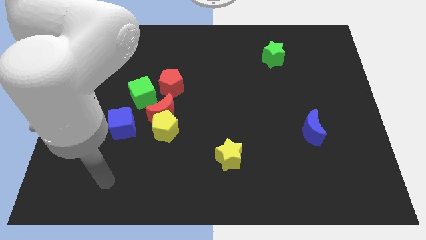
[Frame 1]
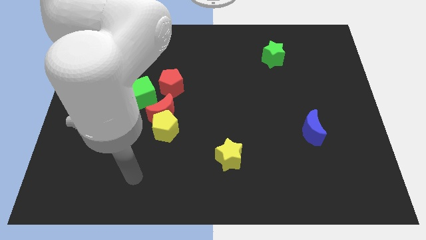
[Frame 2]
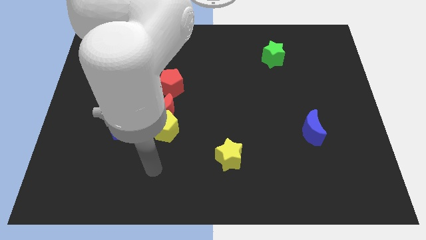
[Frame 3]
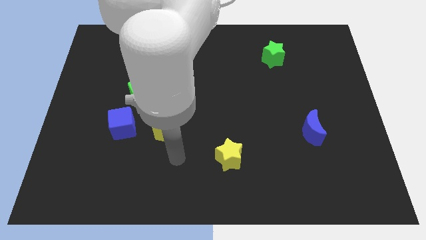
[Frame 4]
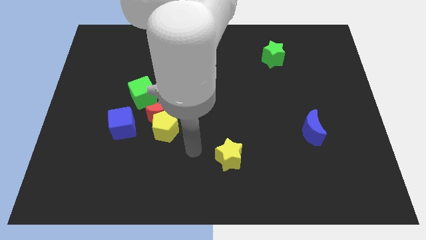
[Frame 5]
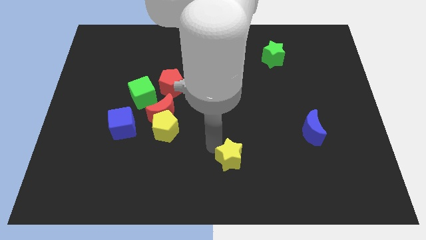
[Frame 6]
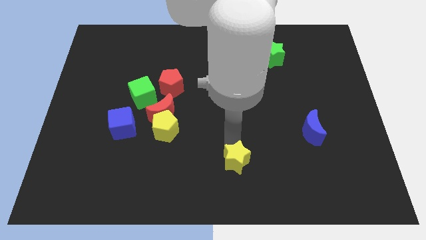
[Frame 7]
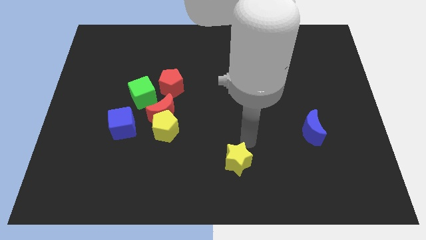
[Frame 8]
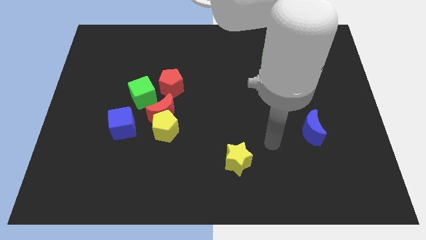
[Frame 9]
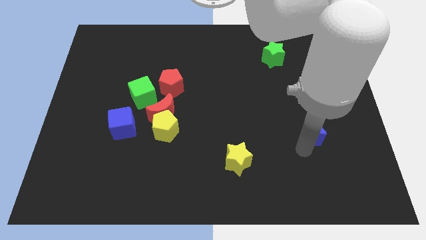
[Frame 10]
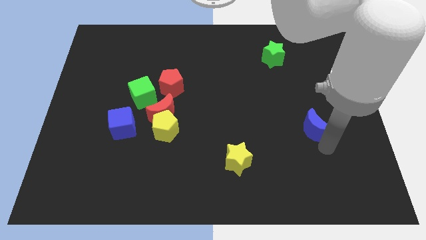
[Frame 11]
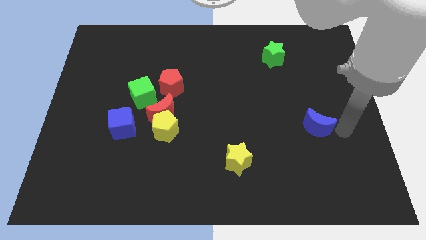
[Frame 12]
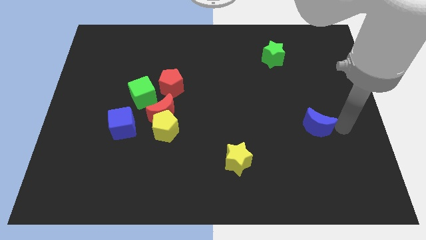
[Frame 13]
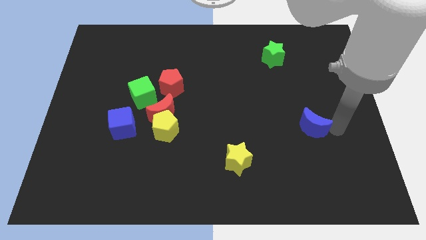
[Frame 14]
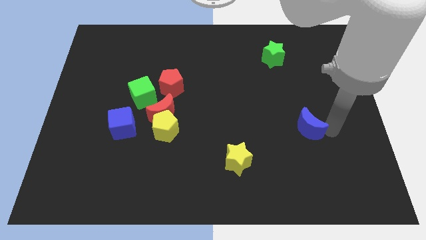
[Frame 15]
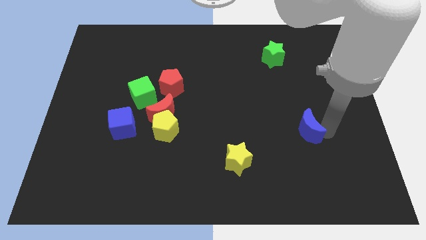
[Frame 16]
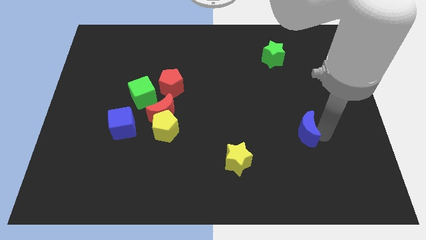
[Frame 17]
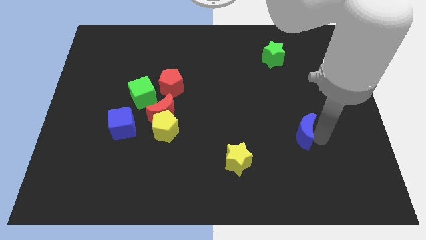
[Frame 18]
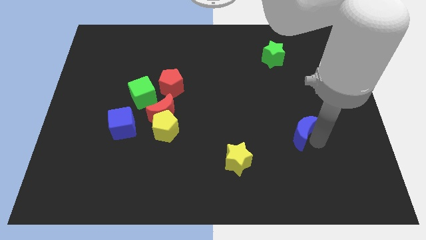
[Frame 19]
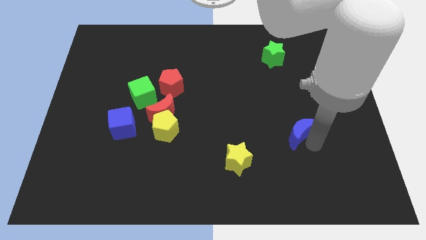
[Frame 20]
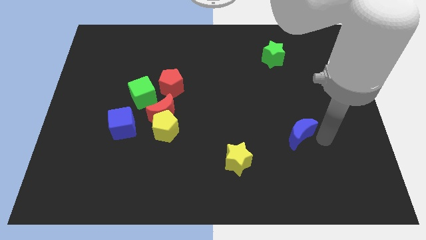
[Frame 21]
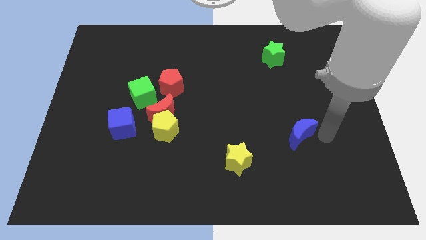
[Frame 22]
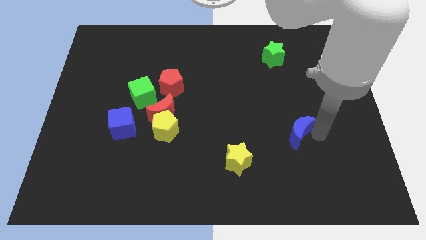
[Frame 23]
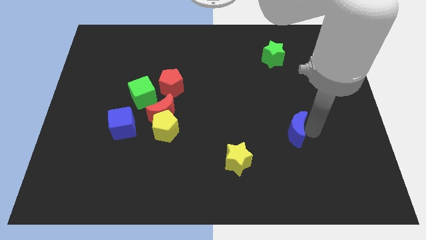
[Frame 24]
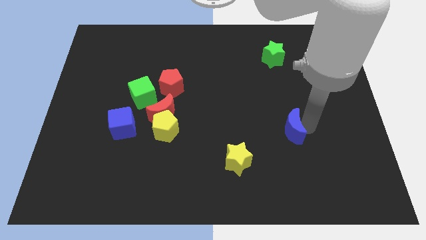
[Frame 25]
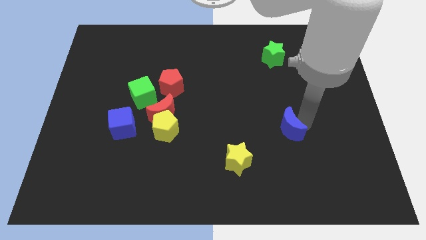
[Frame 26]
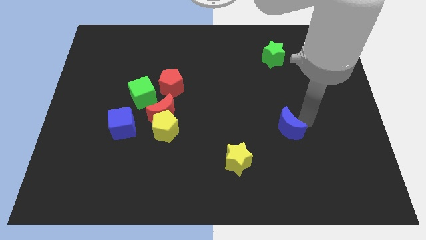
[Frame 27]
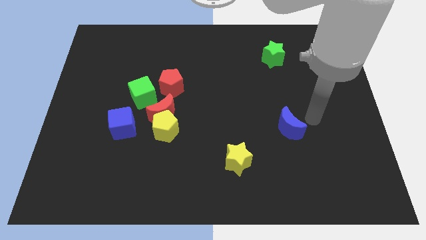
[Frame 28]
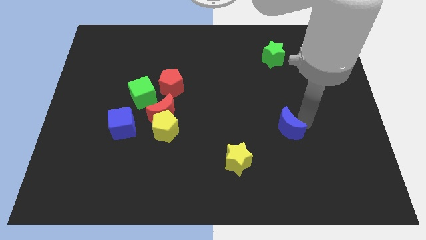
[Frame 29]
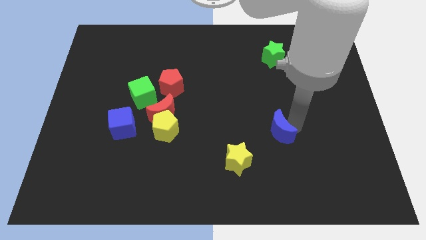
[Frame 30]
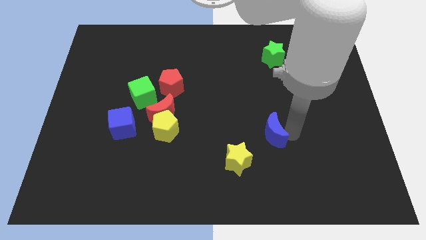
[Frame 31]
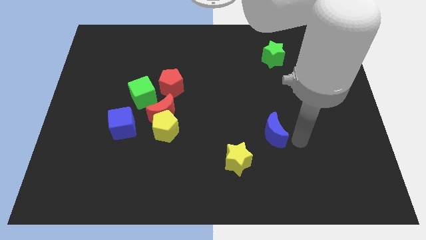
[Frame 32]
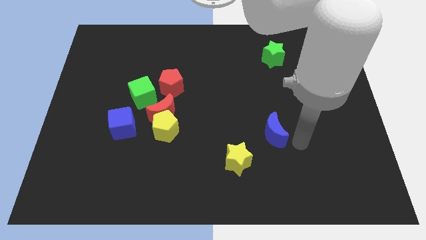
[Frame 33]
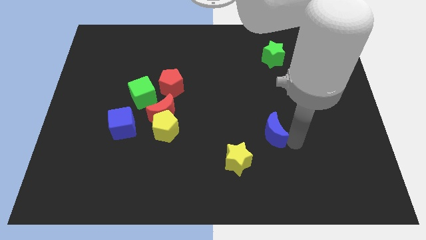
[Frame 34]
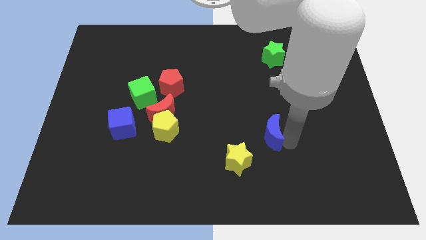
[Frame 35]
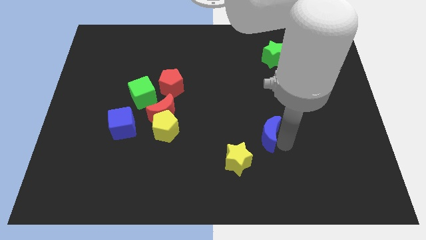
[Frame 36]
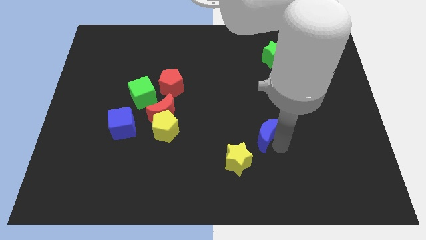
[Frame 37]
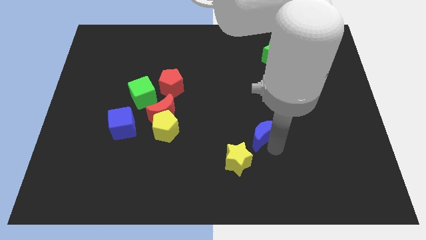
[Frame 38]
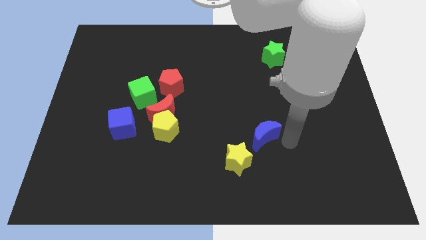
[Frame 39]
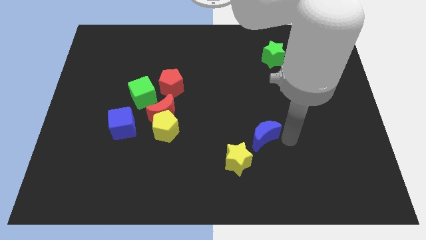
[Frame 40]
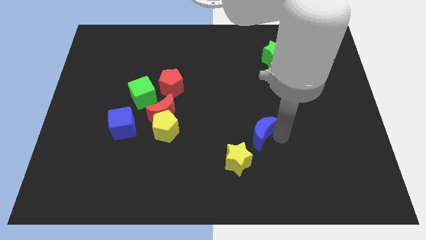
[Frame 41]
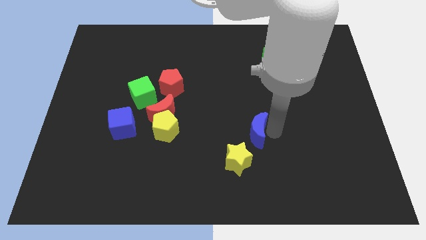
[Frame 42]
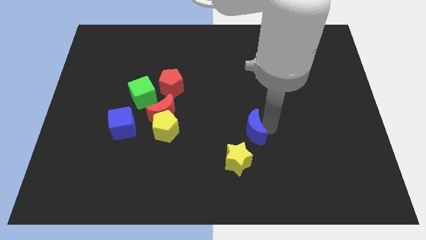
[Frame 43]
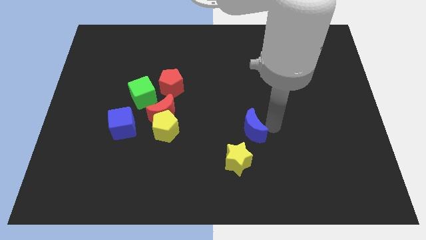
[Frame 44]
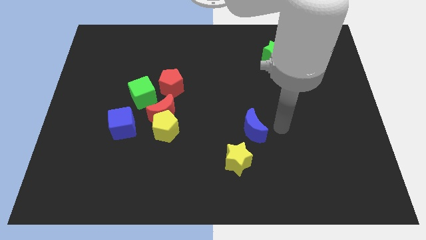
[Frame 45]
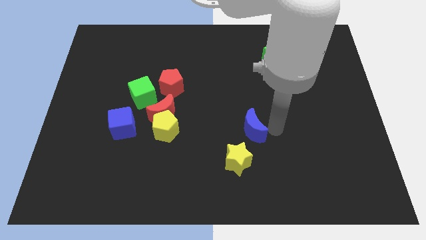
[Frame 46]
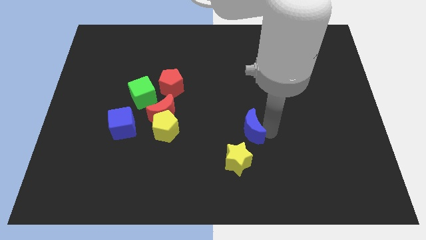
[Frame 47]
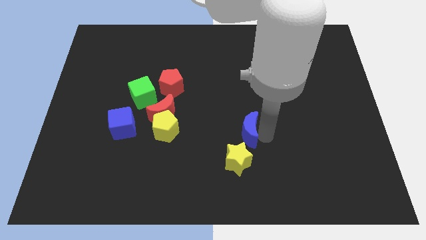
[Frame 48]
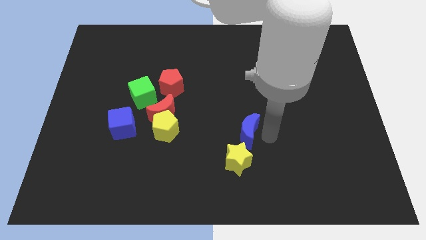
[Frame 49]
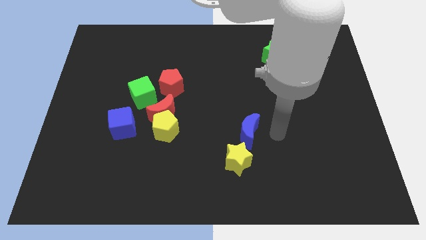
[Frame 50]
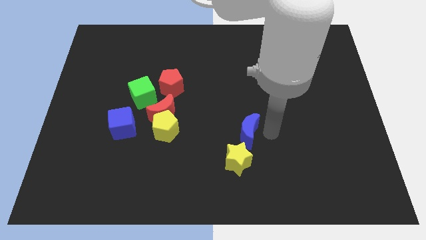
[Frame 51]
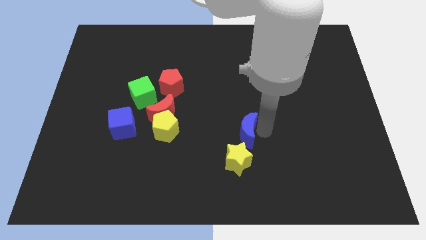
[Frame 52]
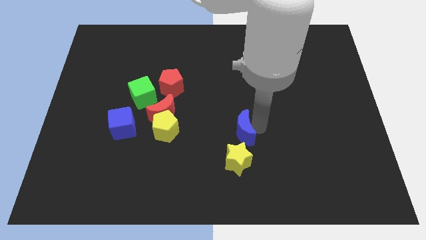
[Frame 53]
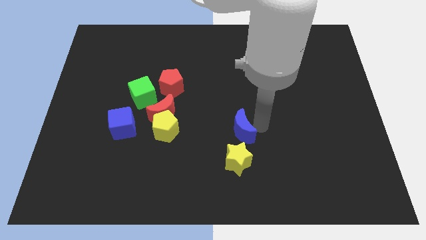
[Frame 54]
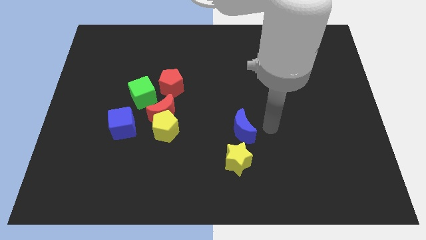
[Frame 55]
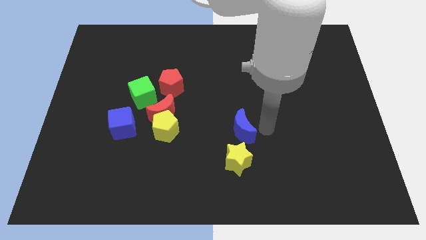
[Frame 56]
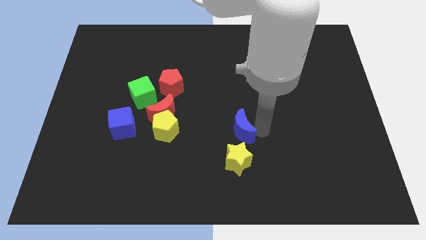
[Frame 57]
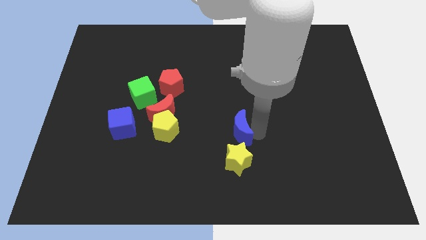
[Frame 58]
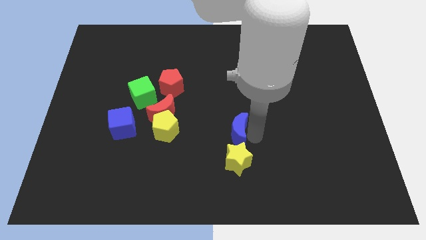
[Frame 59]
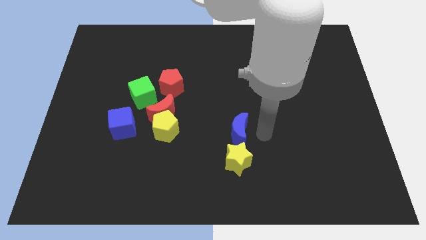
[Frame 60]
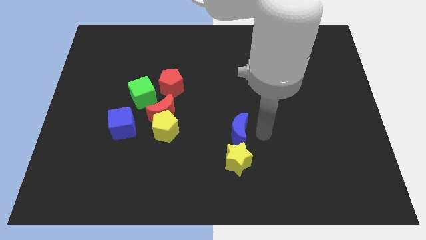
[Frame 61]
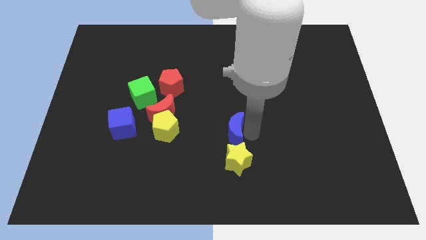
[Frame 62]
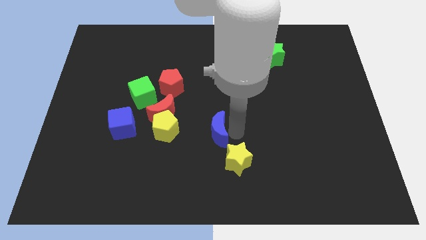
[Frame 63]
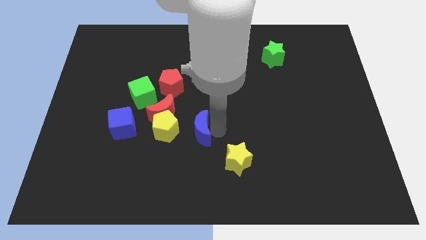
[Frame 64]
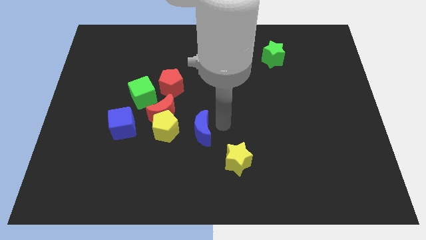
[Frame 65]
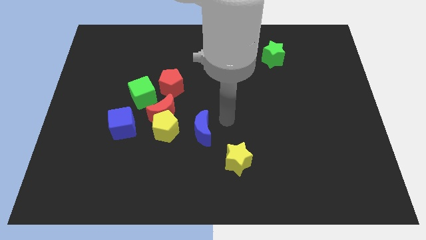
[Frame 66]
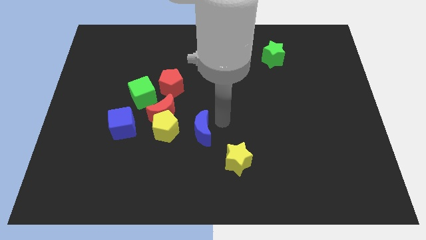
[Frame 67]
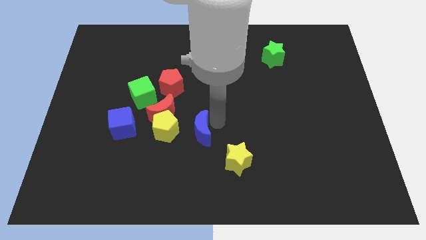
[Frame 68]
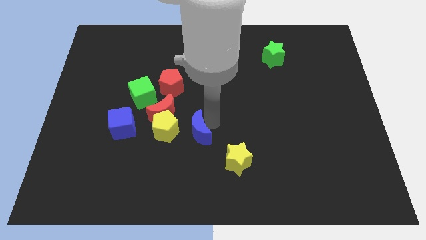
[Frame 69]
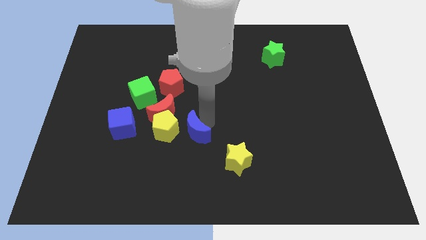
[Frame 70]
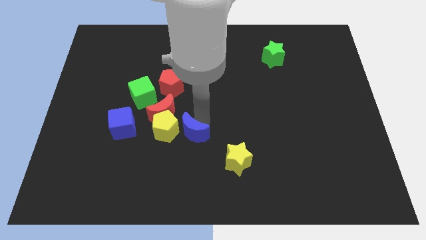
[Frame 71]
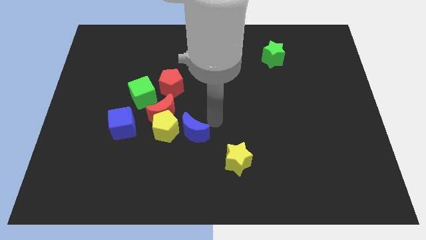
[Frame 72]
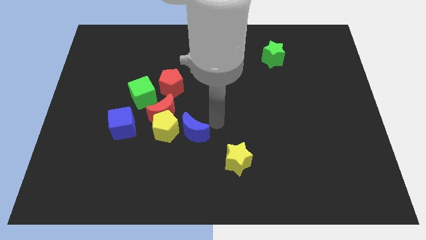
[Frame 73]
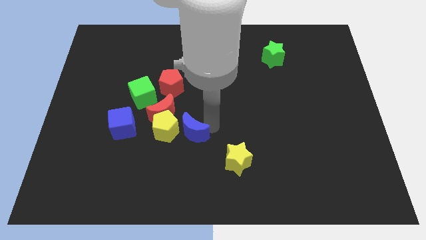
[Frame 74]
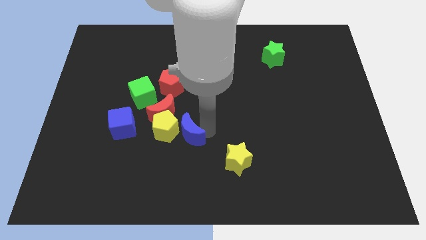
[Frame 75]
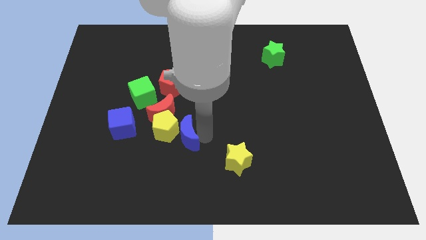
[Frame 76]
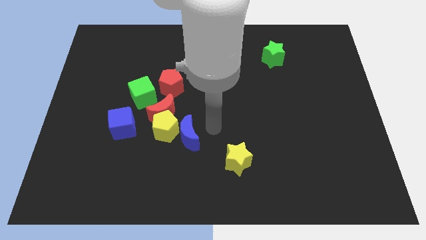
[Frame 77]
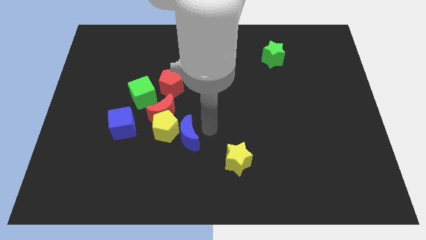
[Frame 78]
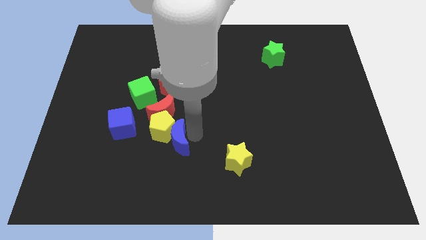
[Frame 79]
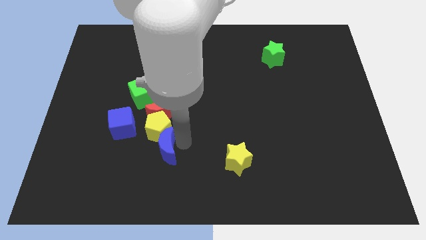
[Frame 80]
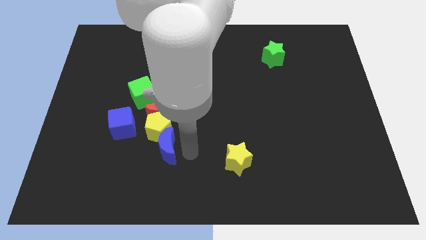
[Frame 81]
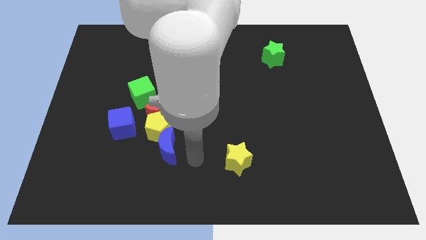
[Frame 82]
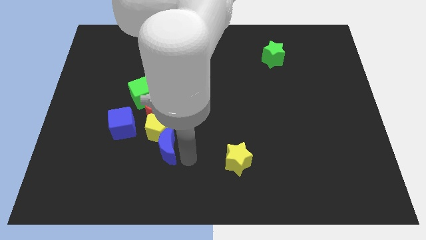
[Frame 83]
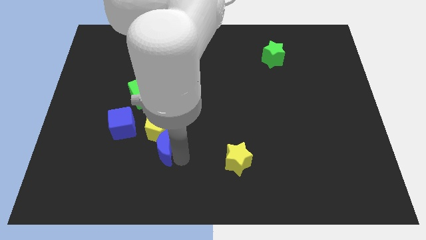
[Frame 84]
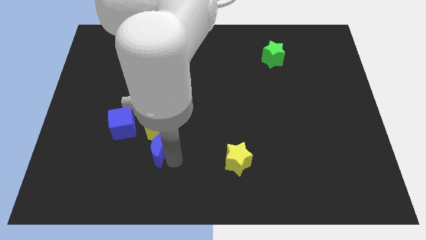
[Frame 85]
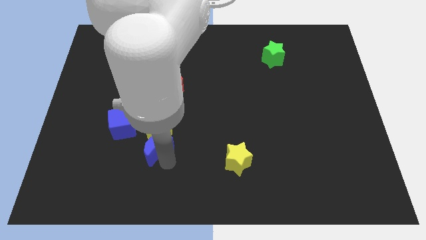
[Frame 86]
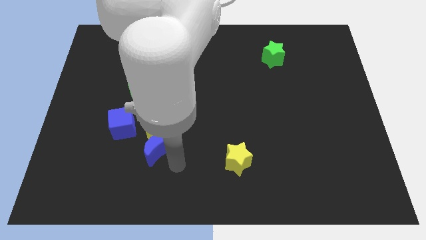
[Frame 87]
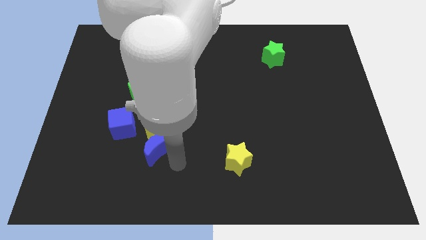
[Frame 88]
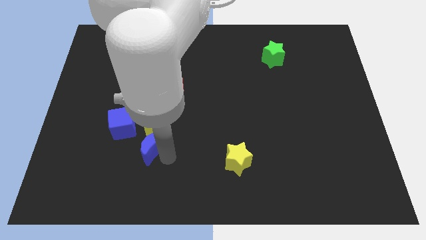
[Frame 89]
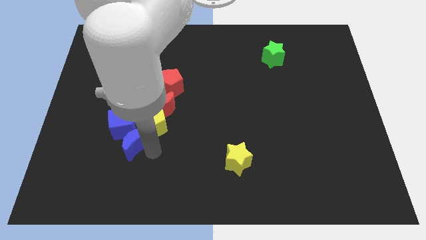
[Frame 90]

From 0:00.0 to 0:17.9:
move the blue moon towards the blue cube
